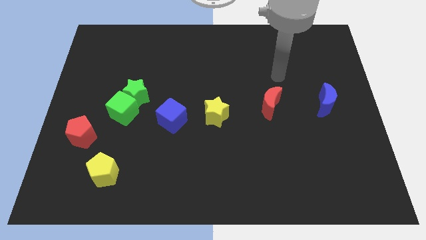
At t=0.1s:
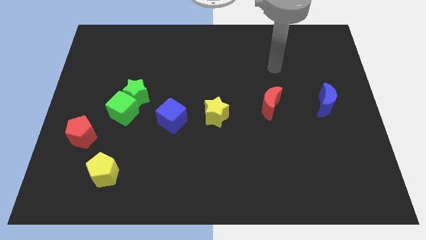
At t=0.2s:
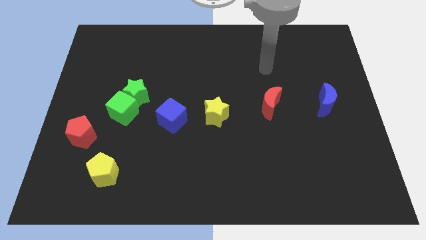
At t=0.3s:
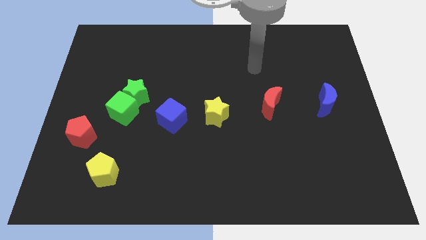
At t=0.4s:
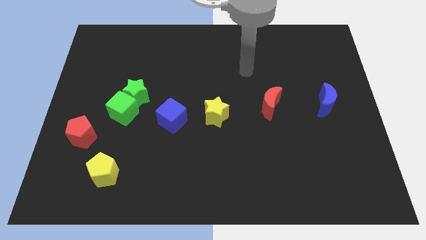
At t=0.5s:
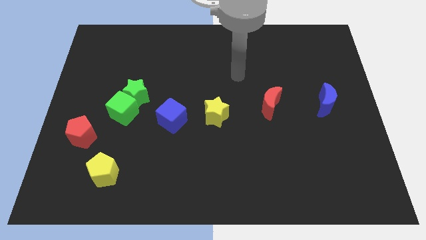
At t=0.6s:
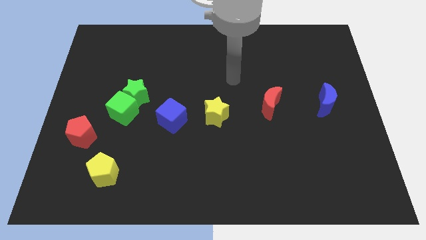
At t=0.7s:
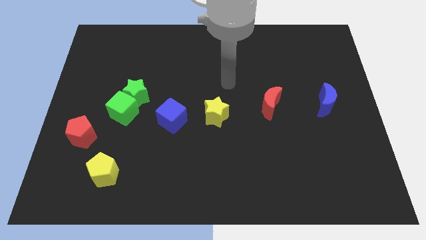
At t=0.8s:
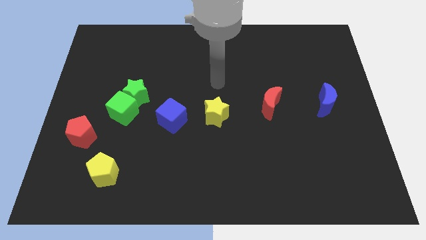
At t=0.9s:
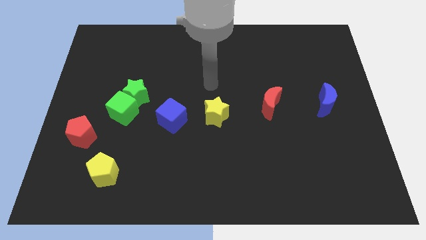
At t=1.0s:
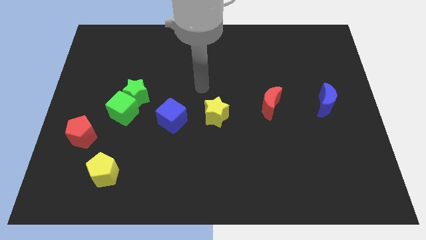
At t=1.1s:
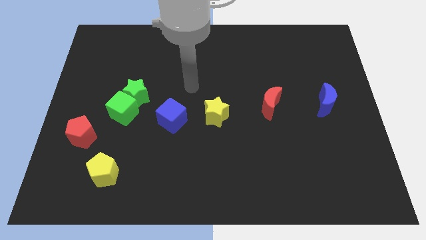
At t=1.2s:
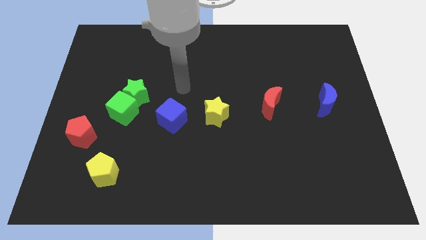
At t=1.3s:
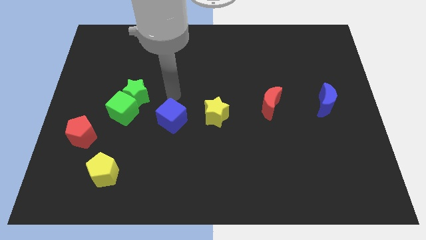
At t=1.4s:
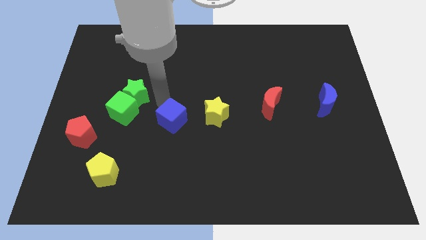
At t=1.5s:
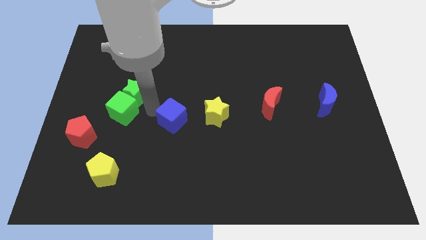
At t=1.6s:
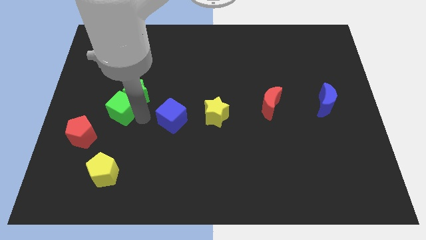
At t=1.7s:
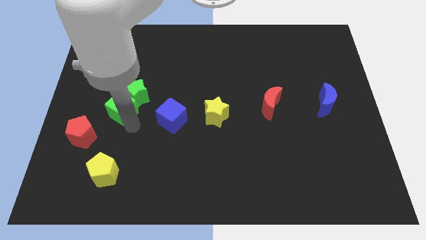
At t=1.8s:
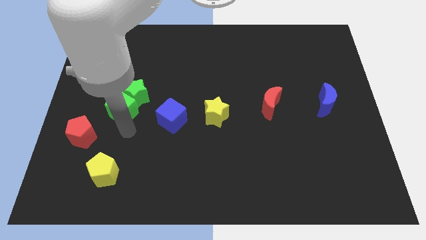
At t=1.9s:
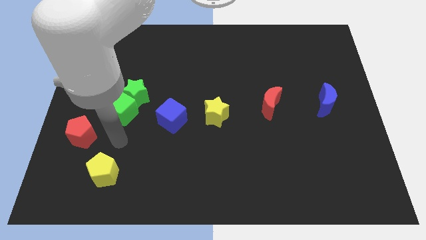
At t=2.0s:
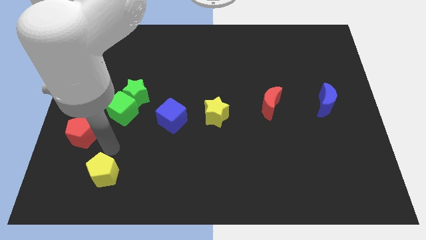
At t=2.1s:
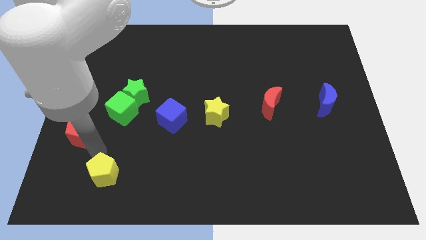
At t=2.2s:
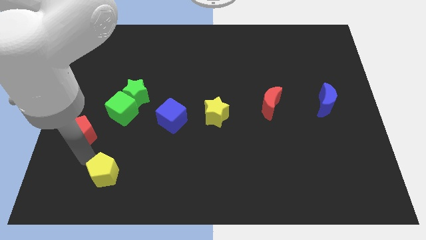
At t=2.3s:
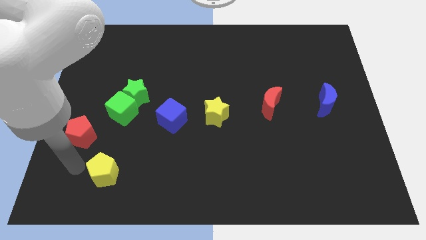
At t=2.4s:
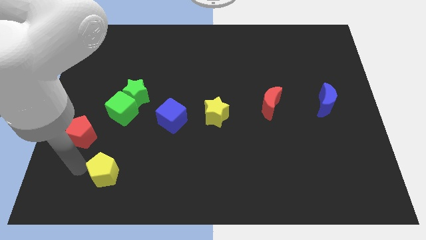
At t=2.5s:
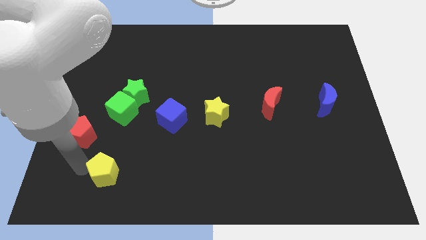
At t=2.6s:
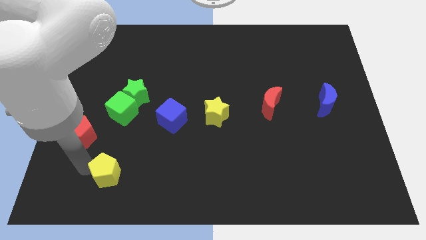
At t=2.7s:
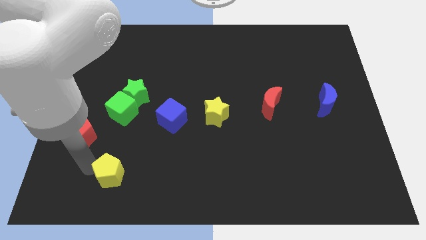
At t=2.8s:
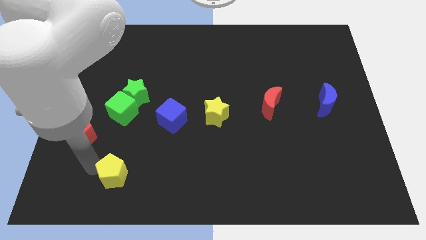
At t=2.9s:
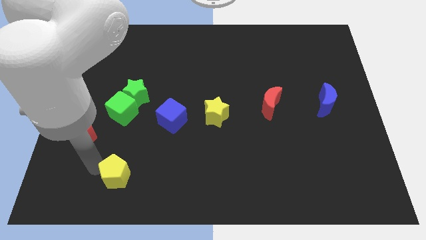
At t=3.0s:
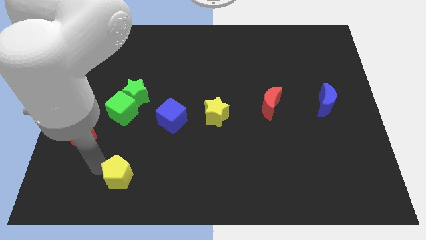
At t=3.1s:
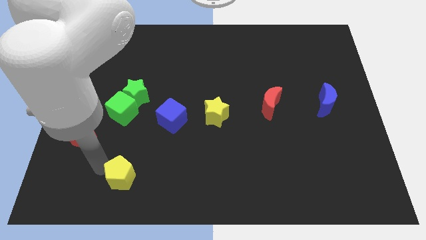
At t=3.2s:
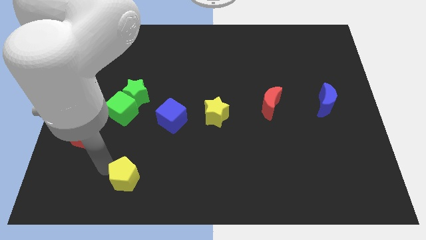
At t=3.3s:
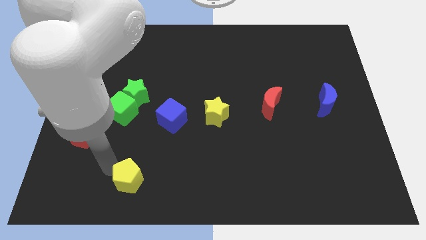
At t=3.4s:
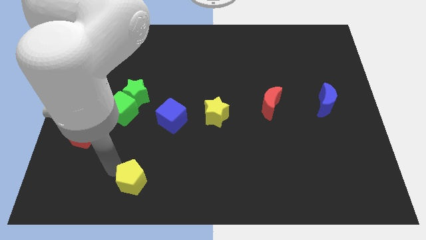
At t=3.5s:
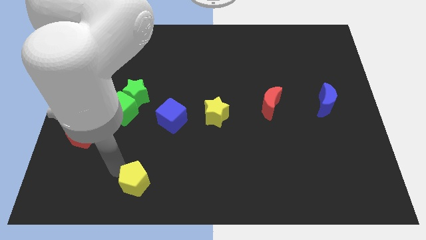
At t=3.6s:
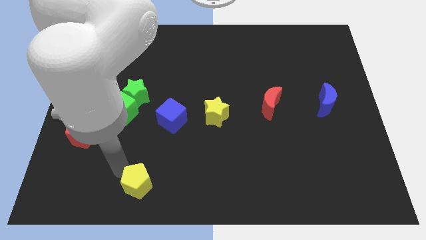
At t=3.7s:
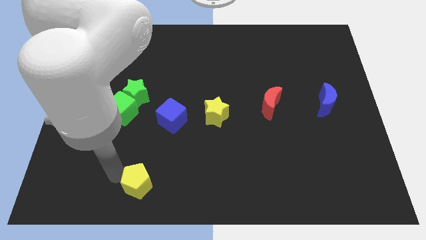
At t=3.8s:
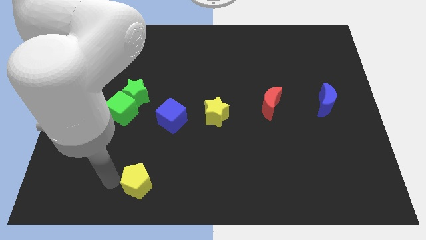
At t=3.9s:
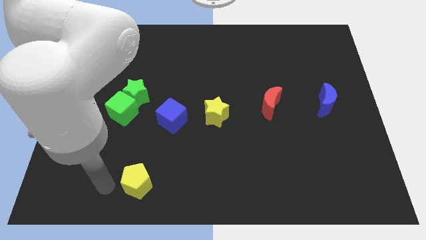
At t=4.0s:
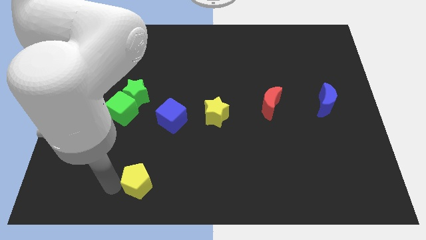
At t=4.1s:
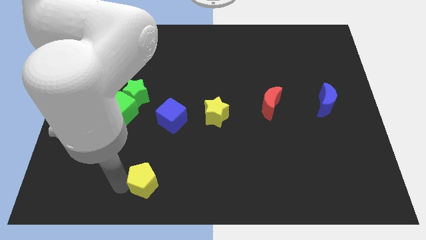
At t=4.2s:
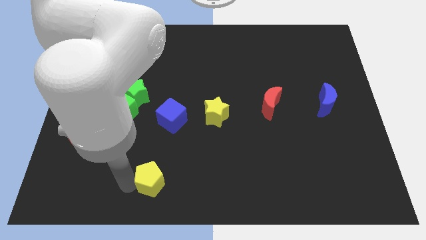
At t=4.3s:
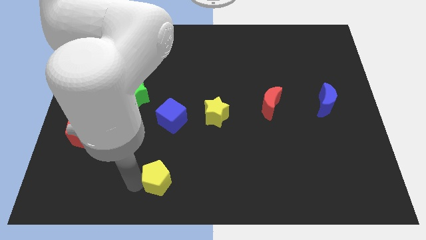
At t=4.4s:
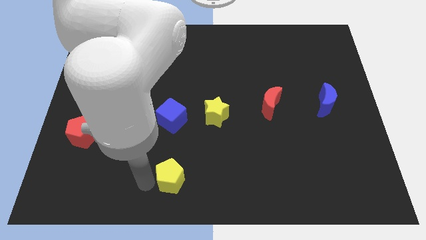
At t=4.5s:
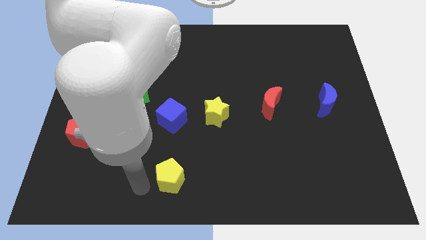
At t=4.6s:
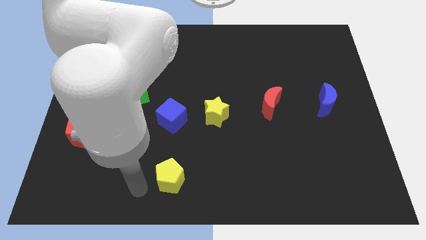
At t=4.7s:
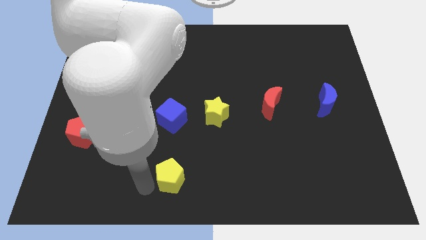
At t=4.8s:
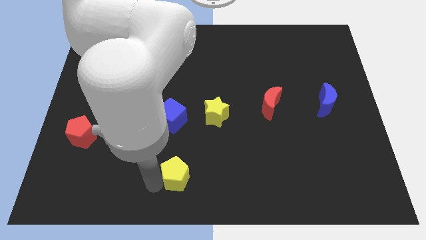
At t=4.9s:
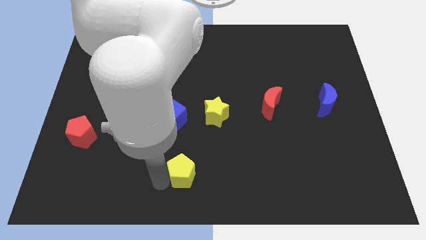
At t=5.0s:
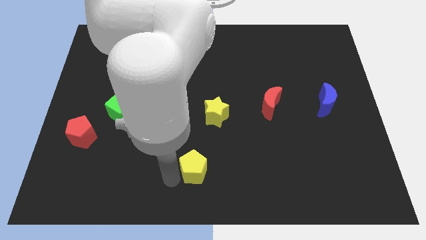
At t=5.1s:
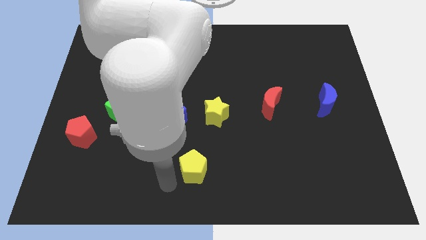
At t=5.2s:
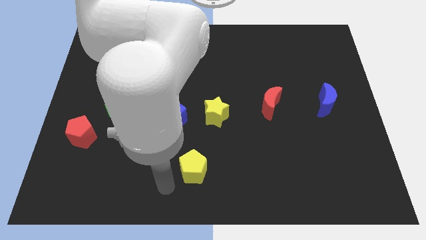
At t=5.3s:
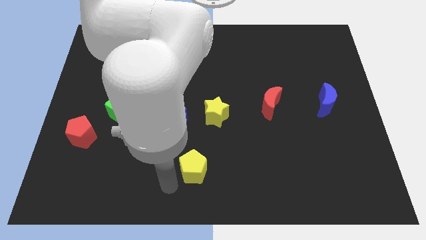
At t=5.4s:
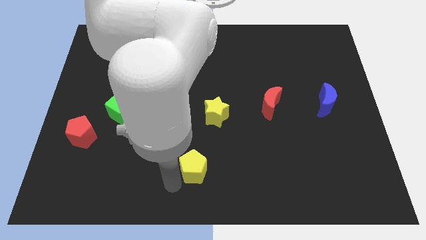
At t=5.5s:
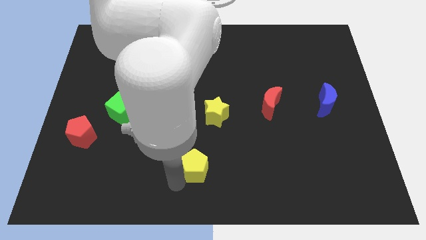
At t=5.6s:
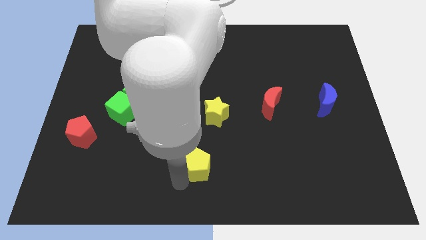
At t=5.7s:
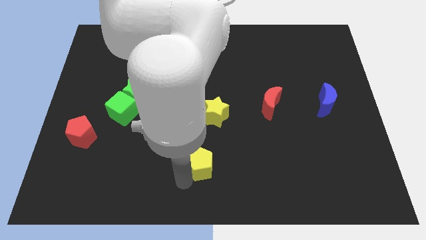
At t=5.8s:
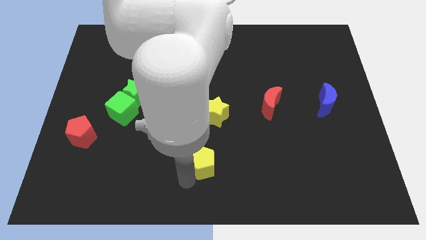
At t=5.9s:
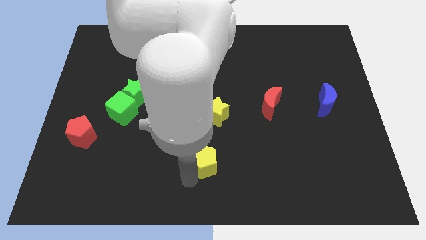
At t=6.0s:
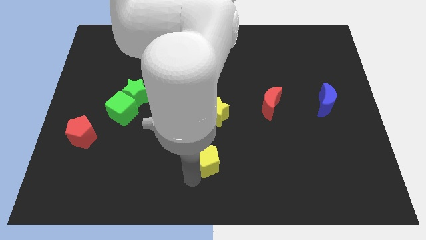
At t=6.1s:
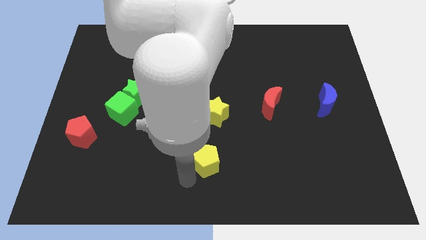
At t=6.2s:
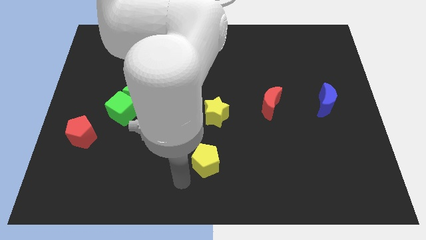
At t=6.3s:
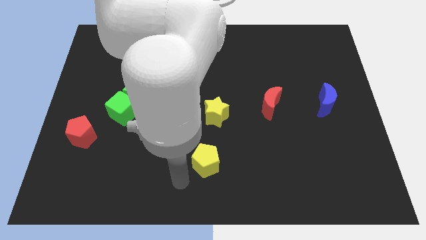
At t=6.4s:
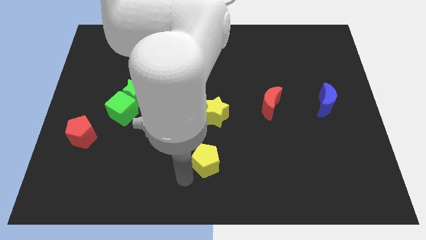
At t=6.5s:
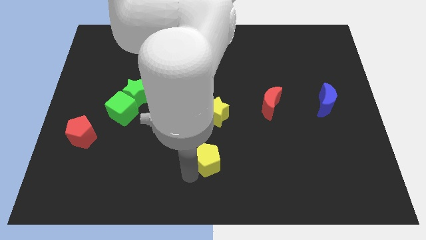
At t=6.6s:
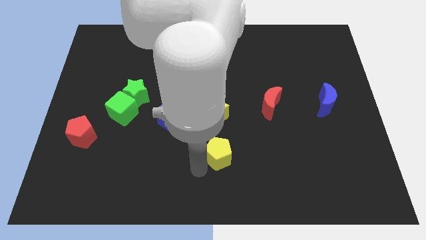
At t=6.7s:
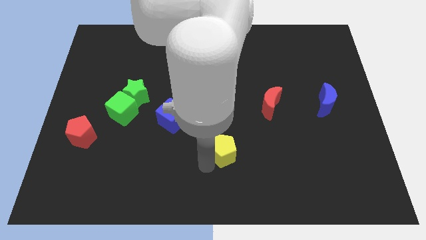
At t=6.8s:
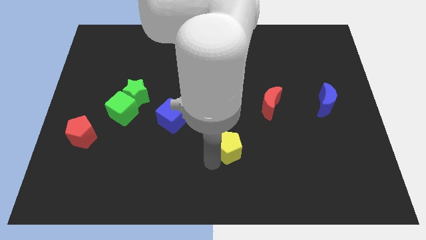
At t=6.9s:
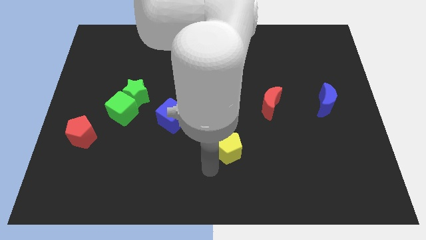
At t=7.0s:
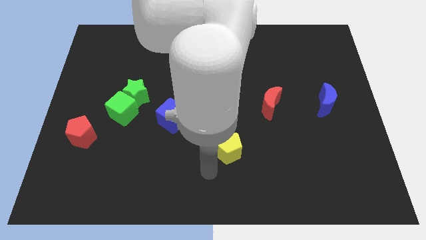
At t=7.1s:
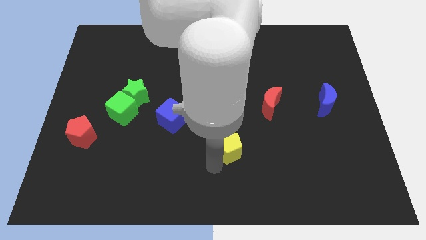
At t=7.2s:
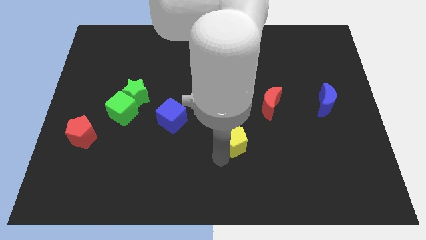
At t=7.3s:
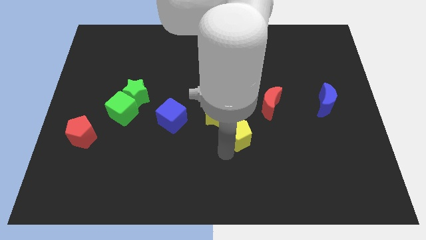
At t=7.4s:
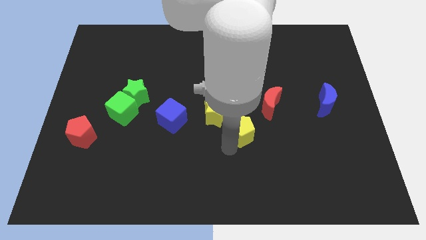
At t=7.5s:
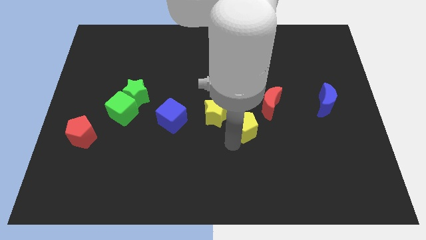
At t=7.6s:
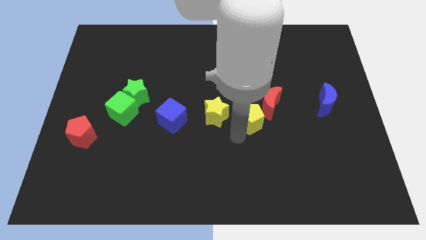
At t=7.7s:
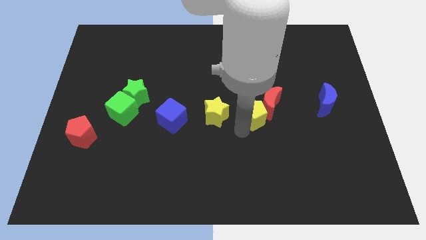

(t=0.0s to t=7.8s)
put the yellow pentagon next to the red moon
